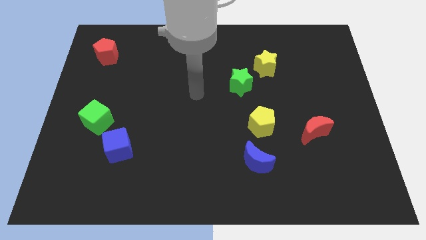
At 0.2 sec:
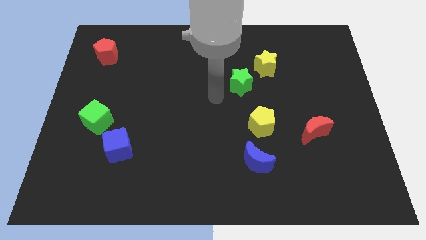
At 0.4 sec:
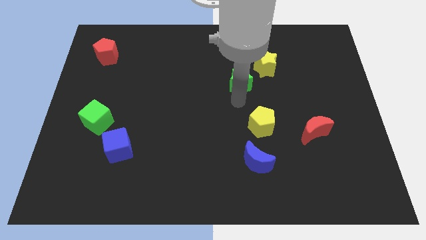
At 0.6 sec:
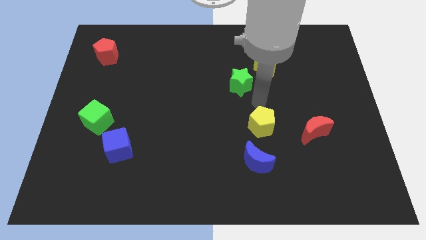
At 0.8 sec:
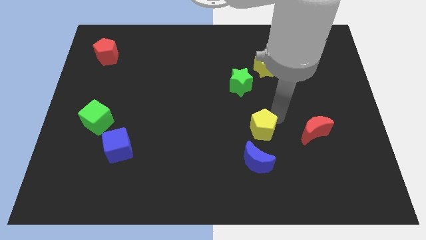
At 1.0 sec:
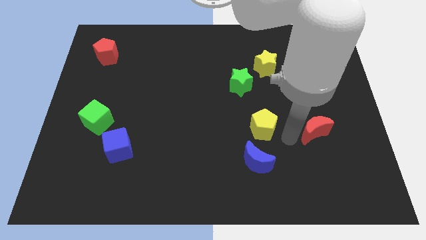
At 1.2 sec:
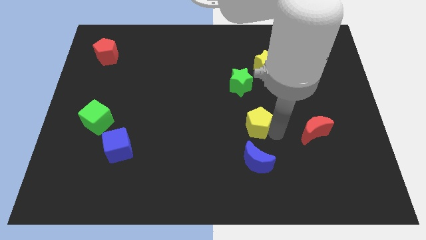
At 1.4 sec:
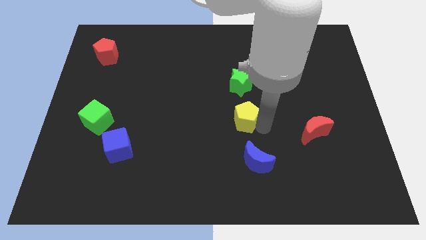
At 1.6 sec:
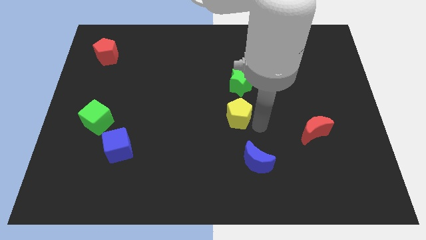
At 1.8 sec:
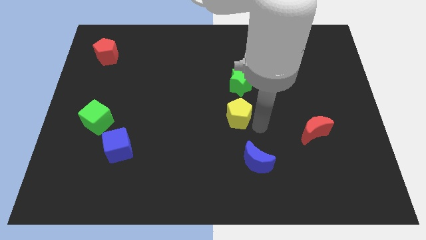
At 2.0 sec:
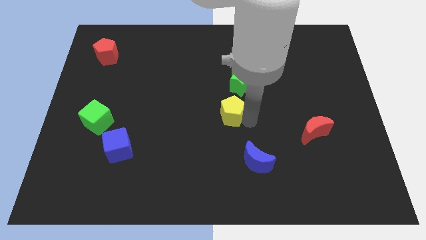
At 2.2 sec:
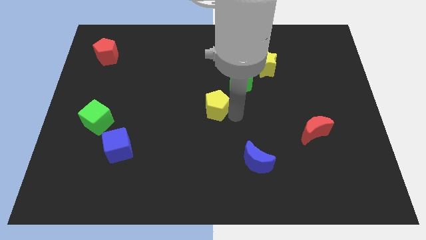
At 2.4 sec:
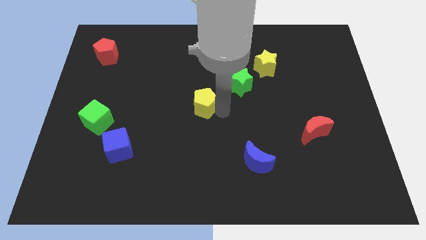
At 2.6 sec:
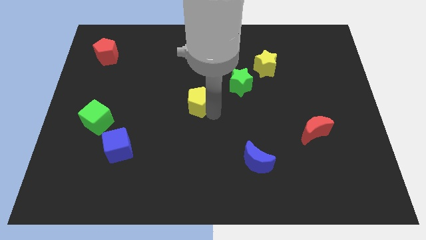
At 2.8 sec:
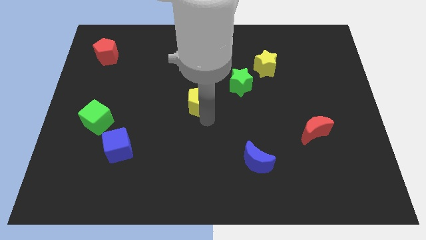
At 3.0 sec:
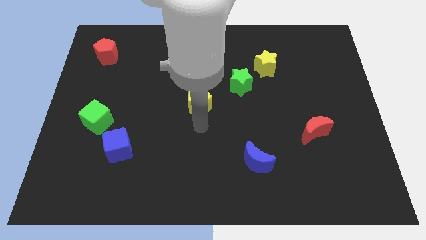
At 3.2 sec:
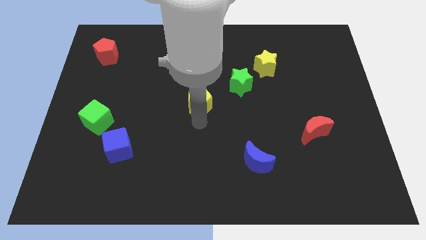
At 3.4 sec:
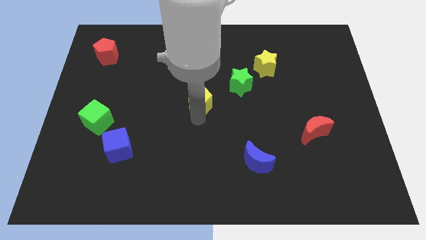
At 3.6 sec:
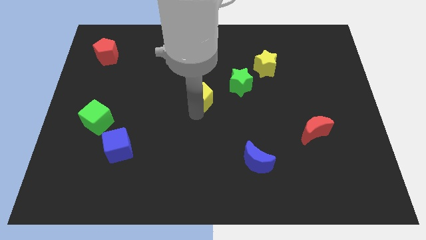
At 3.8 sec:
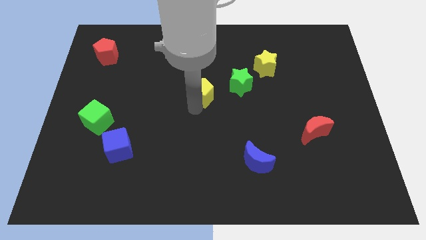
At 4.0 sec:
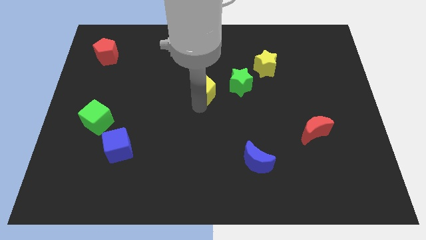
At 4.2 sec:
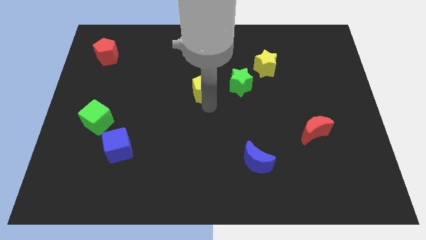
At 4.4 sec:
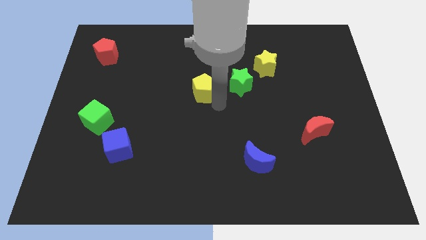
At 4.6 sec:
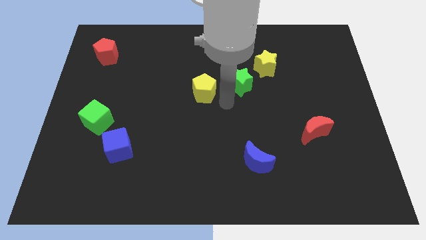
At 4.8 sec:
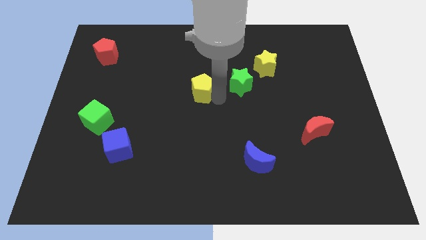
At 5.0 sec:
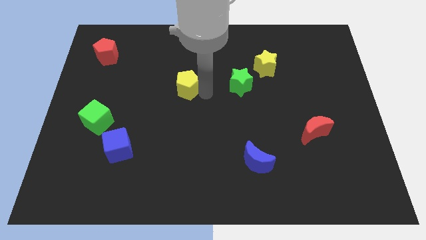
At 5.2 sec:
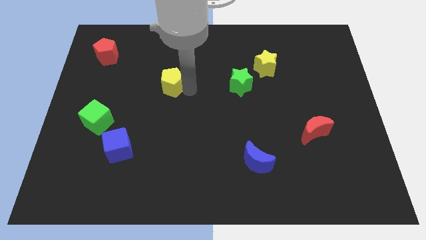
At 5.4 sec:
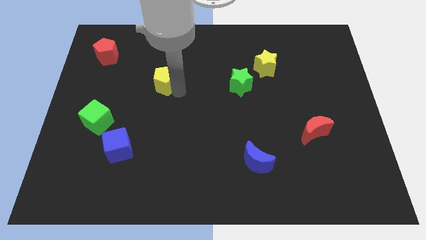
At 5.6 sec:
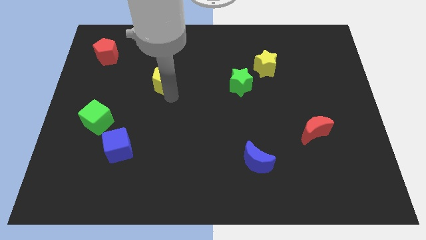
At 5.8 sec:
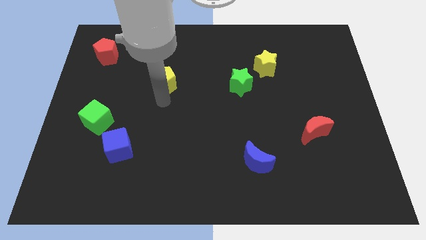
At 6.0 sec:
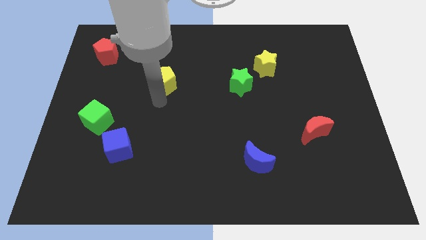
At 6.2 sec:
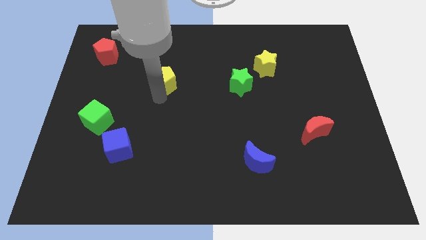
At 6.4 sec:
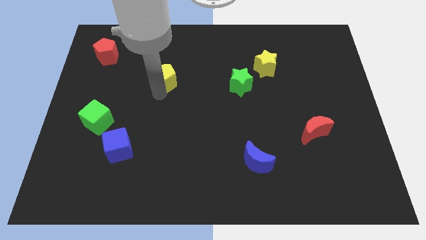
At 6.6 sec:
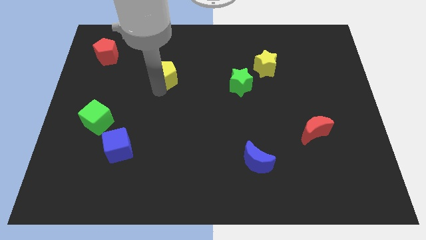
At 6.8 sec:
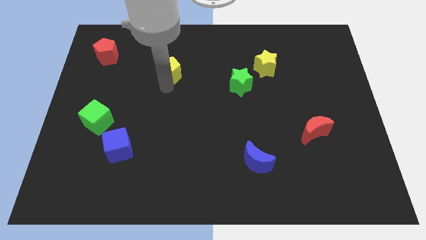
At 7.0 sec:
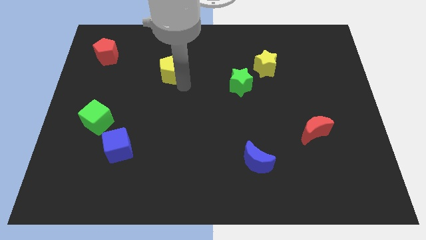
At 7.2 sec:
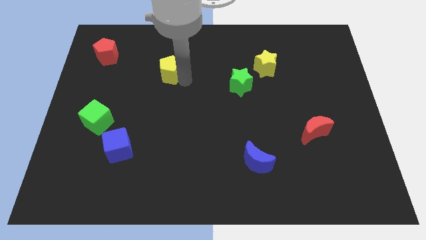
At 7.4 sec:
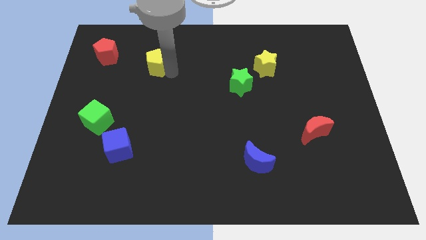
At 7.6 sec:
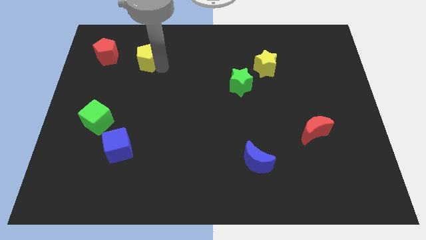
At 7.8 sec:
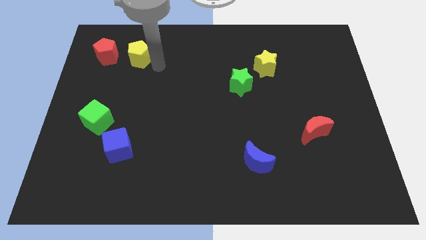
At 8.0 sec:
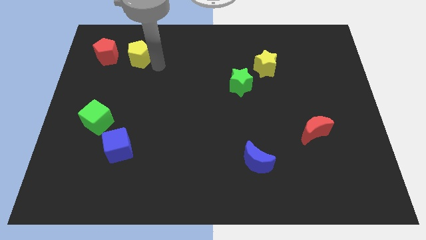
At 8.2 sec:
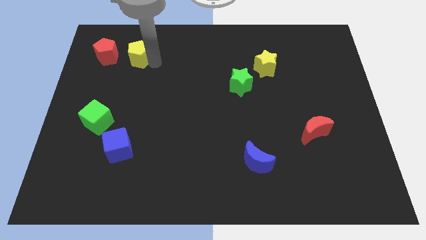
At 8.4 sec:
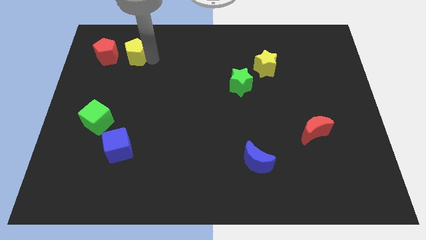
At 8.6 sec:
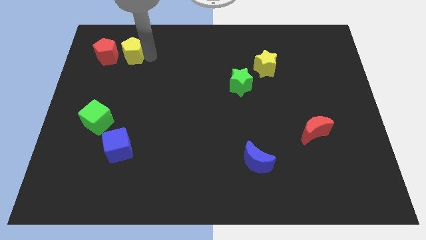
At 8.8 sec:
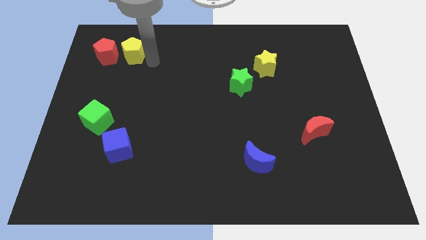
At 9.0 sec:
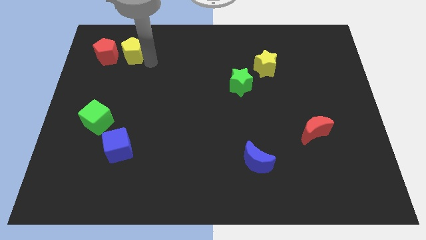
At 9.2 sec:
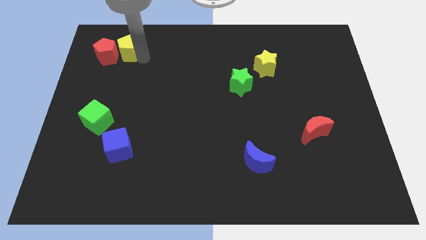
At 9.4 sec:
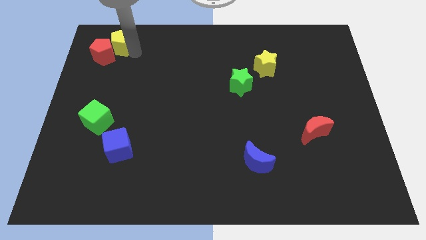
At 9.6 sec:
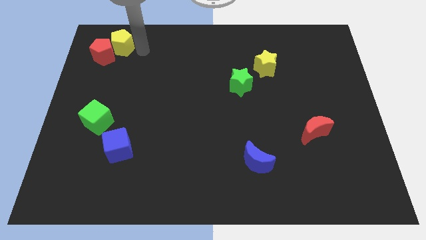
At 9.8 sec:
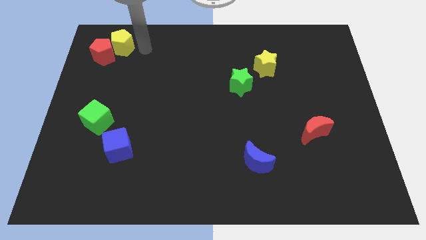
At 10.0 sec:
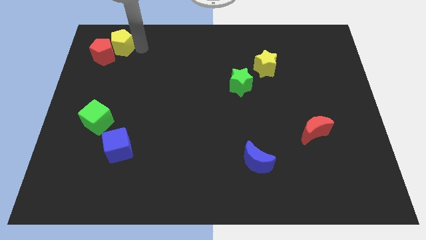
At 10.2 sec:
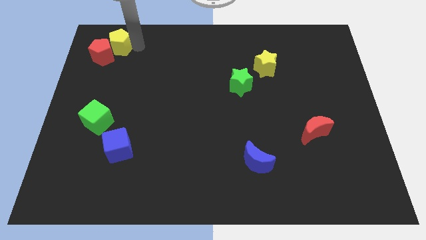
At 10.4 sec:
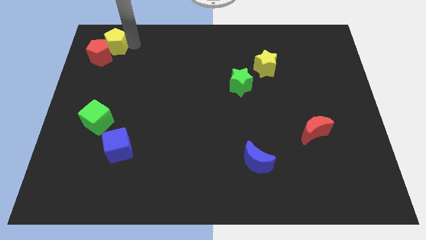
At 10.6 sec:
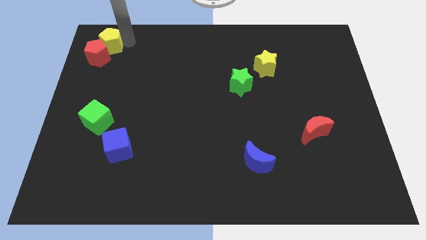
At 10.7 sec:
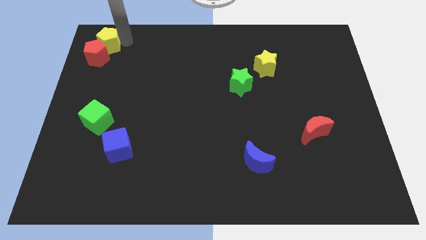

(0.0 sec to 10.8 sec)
slide the yellow pentagon to the upper left corner

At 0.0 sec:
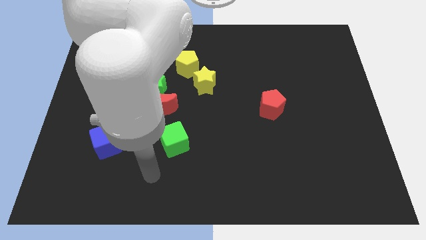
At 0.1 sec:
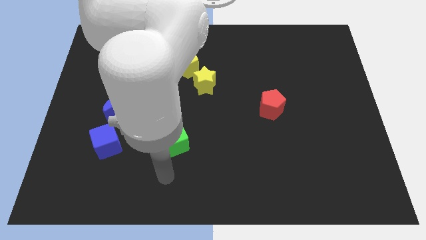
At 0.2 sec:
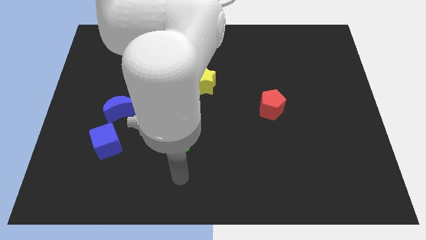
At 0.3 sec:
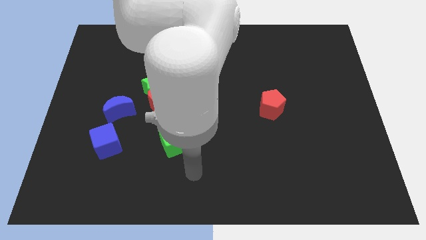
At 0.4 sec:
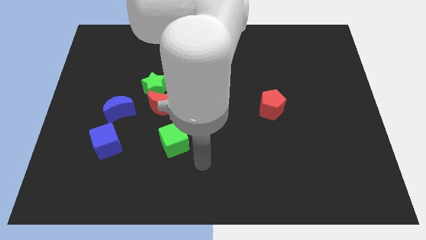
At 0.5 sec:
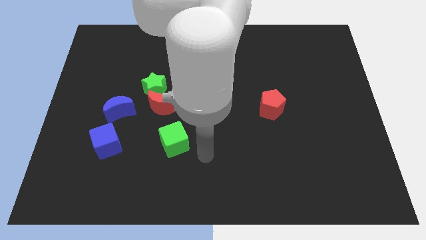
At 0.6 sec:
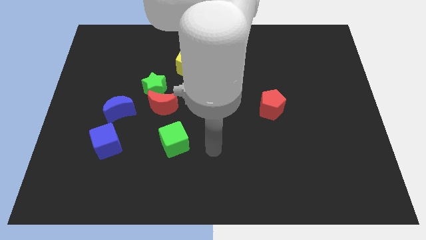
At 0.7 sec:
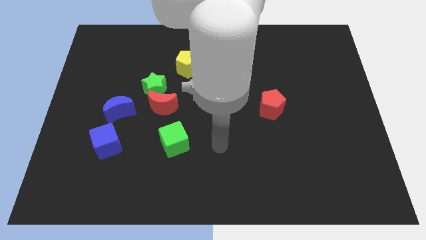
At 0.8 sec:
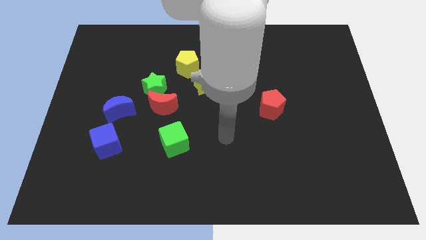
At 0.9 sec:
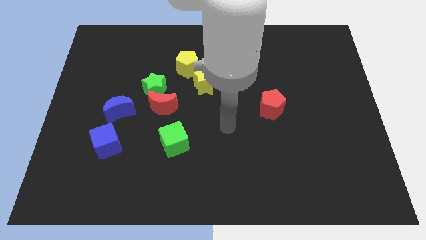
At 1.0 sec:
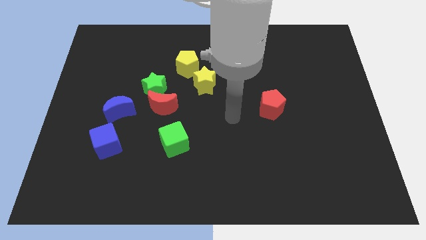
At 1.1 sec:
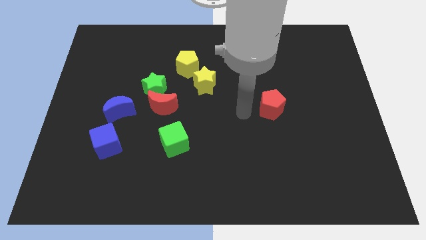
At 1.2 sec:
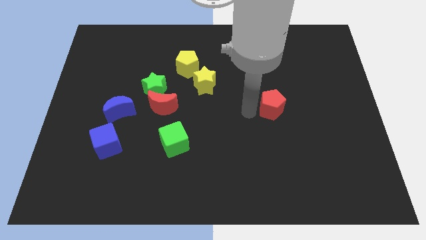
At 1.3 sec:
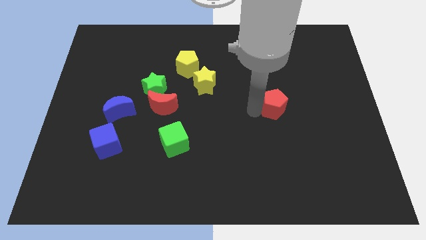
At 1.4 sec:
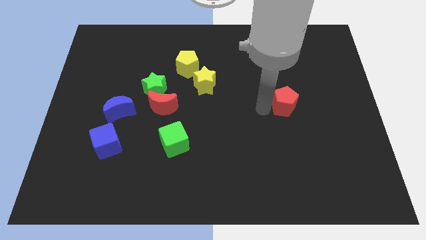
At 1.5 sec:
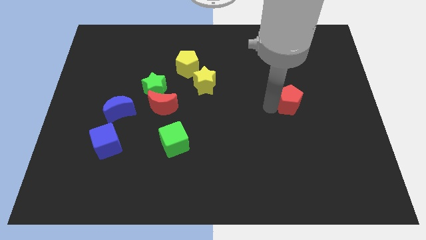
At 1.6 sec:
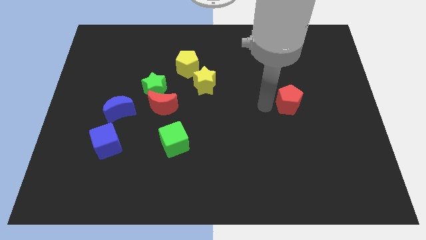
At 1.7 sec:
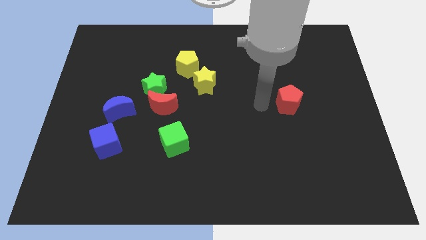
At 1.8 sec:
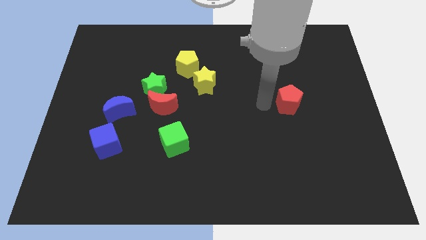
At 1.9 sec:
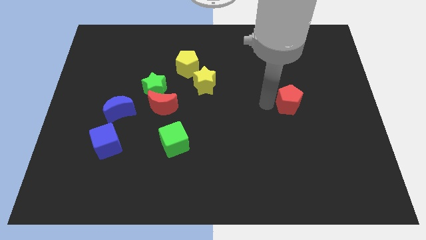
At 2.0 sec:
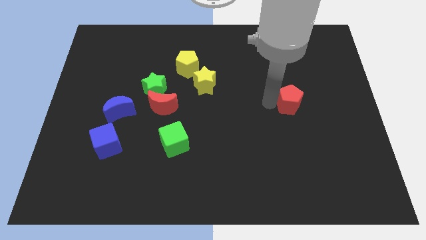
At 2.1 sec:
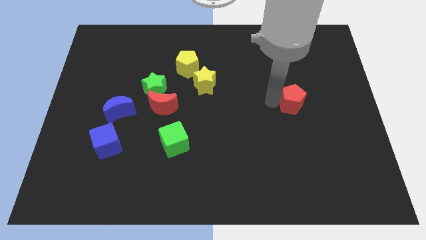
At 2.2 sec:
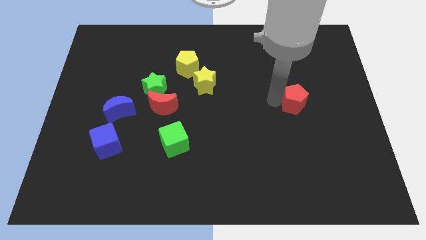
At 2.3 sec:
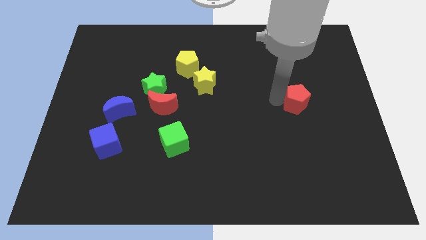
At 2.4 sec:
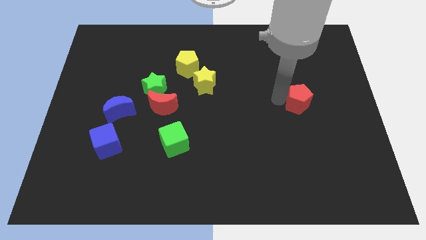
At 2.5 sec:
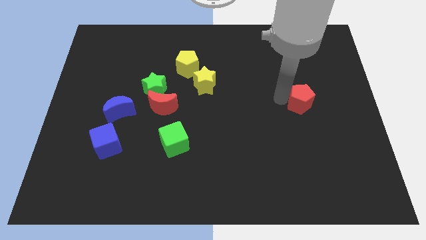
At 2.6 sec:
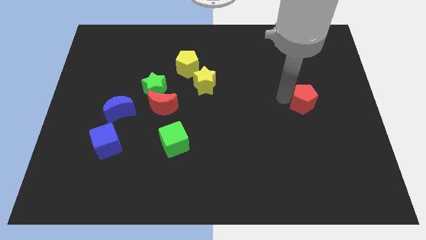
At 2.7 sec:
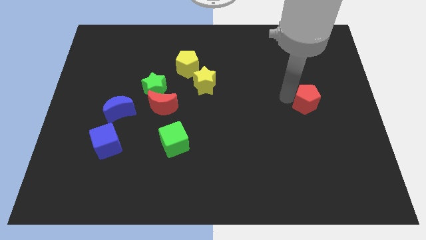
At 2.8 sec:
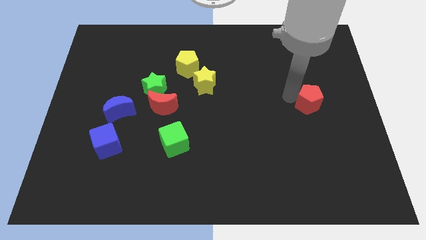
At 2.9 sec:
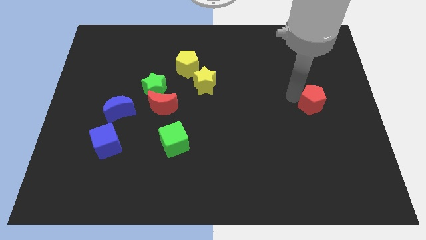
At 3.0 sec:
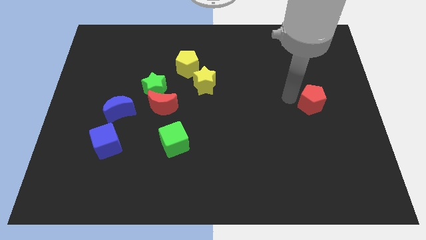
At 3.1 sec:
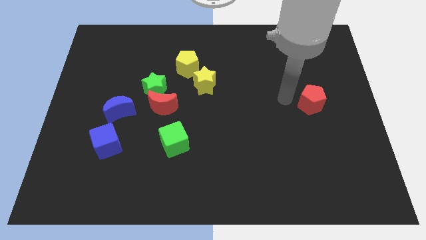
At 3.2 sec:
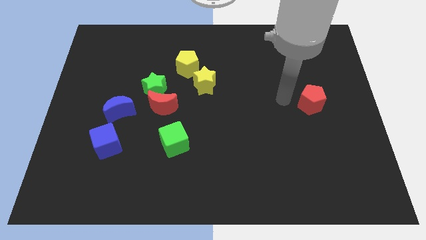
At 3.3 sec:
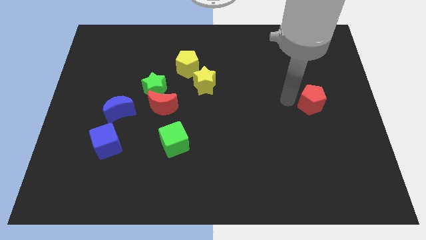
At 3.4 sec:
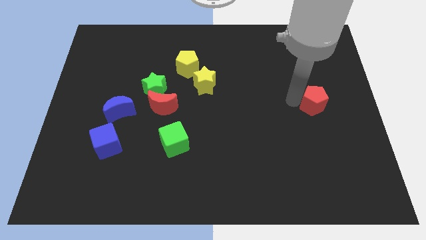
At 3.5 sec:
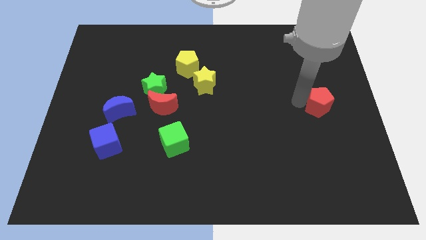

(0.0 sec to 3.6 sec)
move the red pentagon to the center right
